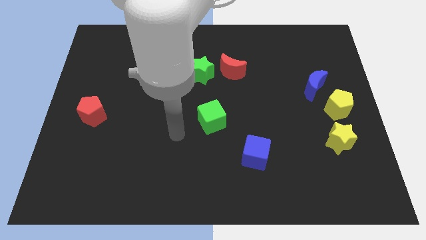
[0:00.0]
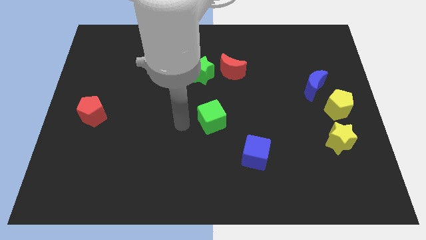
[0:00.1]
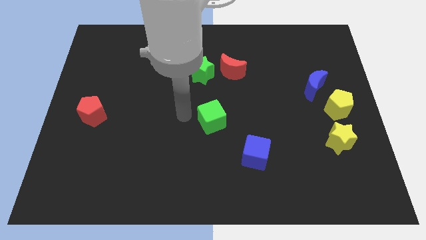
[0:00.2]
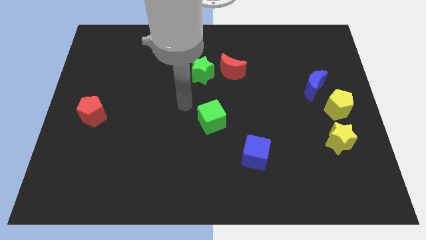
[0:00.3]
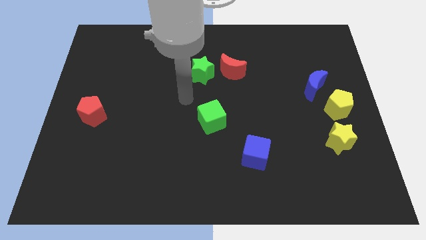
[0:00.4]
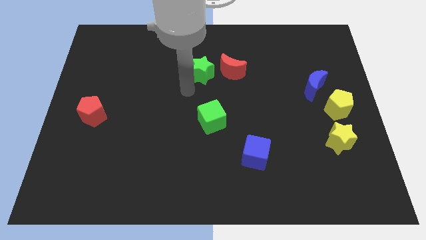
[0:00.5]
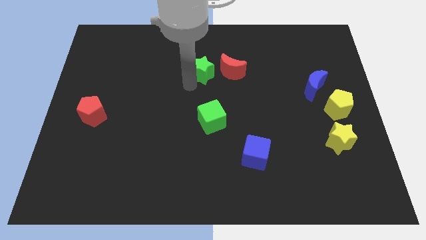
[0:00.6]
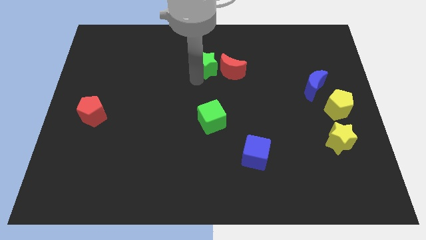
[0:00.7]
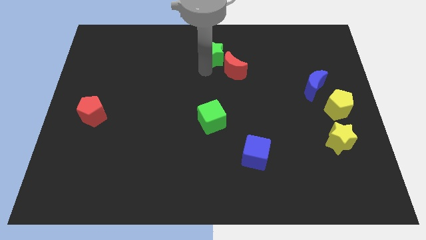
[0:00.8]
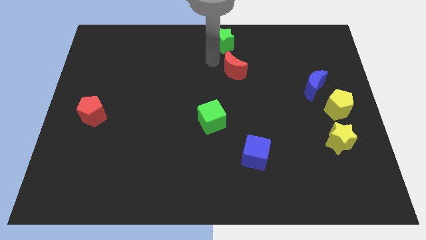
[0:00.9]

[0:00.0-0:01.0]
pull the red moon apart from the green star

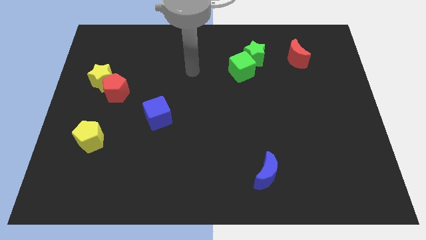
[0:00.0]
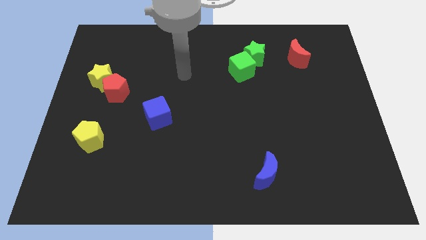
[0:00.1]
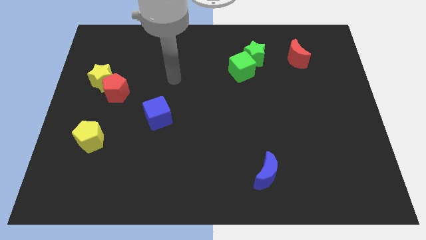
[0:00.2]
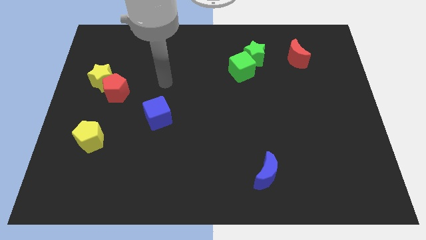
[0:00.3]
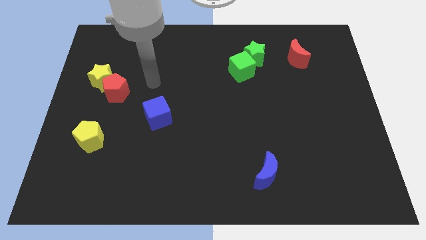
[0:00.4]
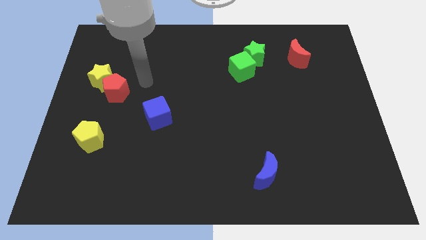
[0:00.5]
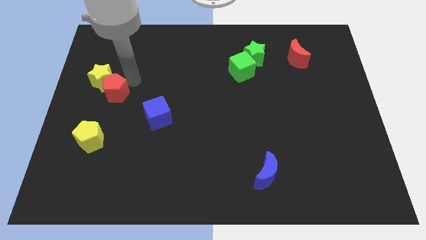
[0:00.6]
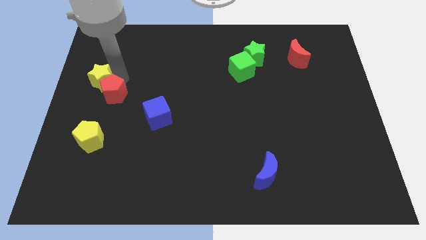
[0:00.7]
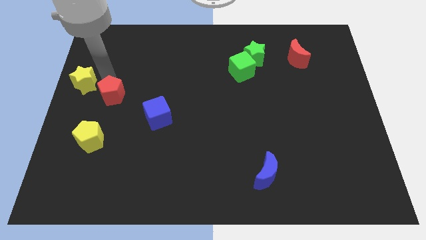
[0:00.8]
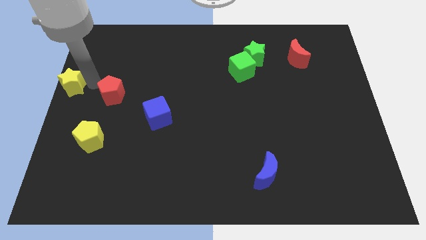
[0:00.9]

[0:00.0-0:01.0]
move the red pentagon away from the yellow star

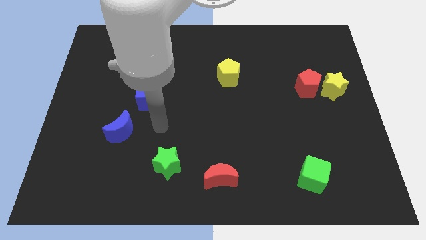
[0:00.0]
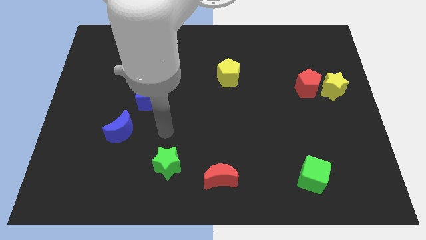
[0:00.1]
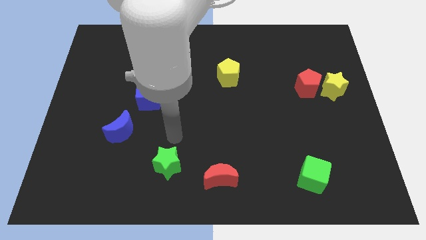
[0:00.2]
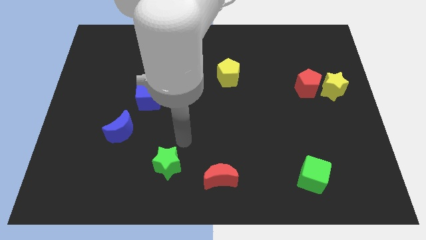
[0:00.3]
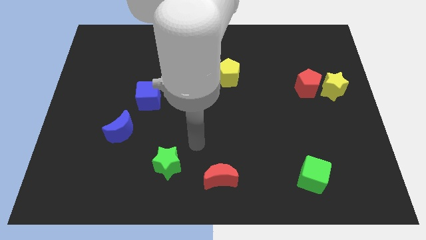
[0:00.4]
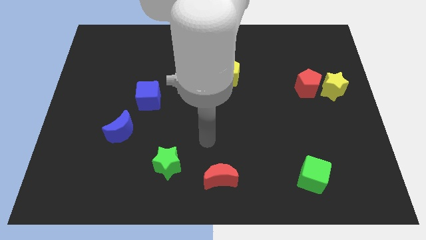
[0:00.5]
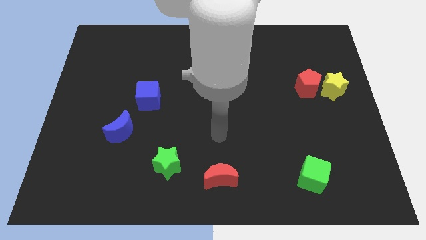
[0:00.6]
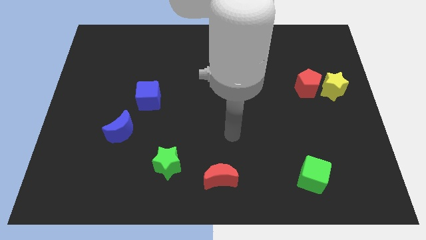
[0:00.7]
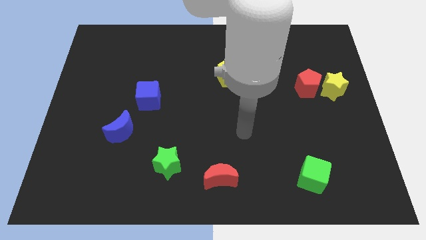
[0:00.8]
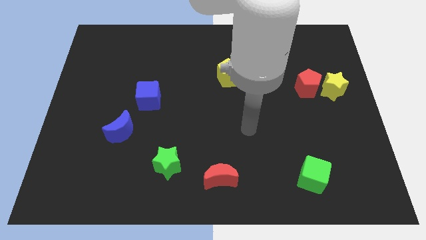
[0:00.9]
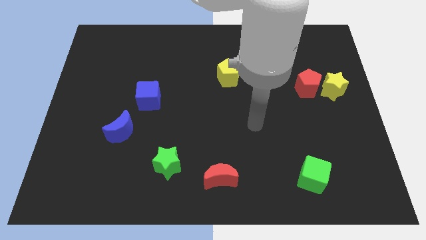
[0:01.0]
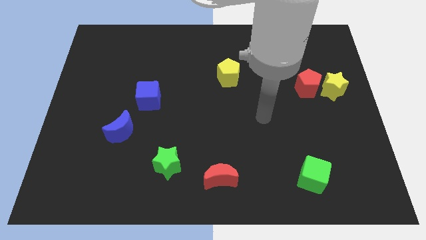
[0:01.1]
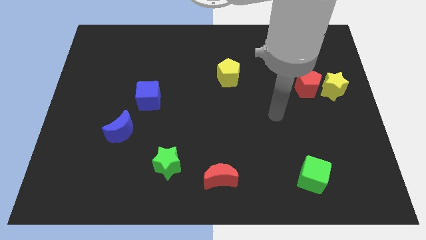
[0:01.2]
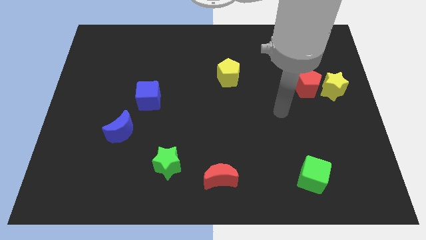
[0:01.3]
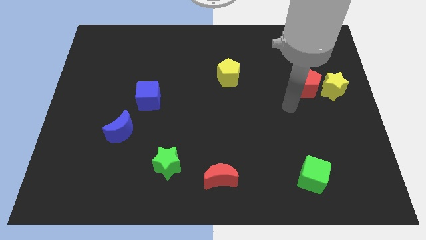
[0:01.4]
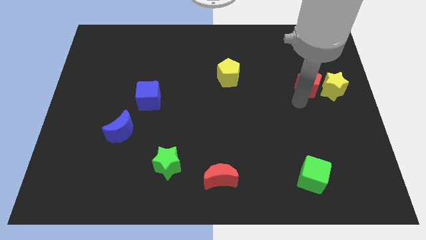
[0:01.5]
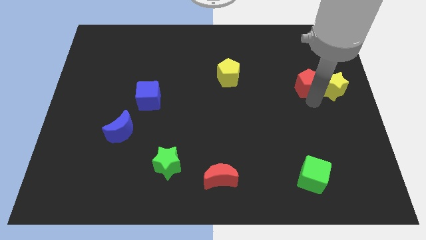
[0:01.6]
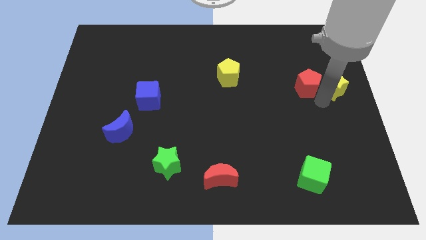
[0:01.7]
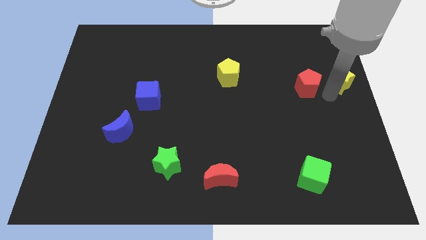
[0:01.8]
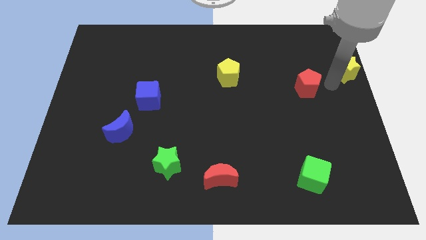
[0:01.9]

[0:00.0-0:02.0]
separate the red pentagon from the yellow star

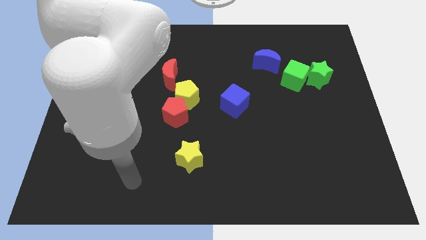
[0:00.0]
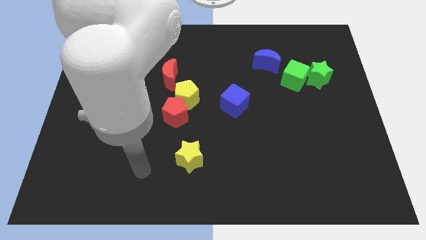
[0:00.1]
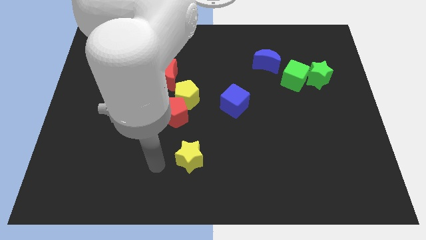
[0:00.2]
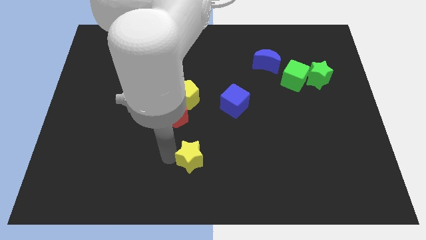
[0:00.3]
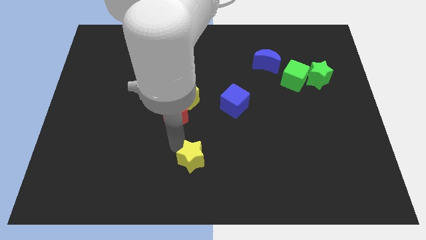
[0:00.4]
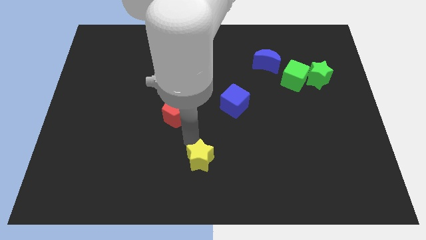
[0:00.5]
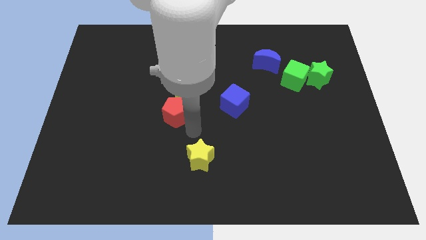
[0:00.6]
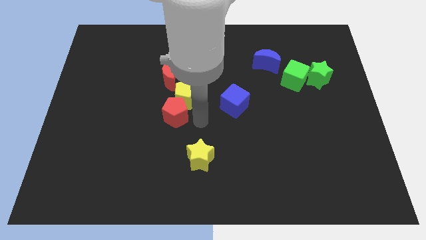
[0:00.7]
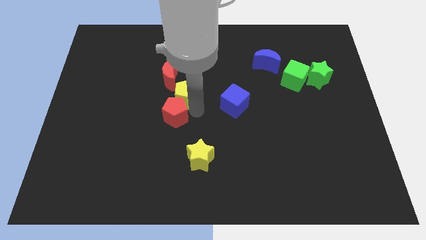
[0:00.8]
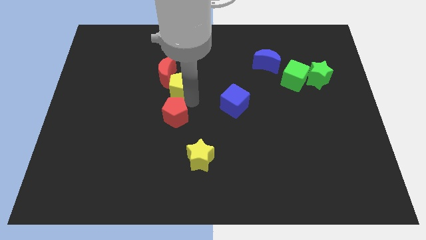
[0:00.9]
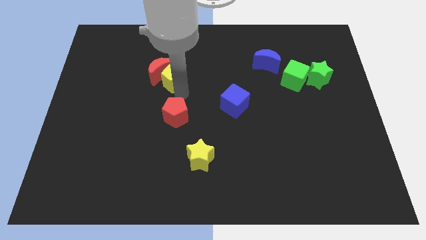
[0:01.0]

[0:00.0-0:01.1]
separate the red pentagon from the yellow pentagon

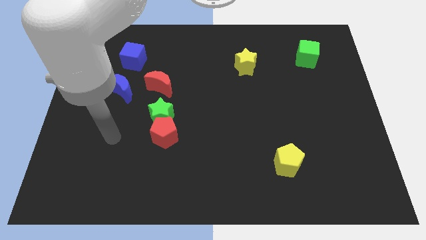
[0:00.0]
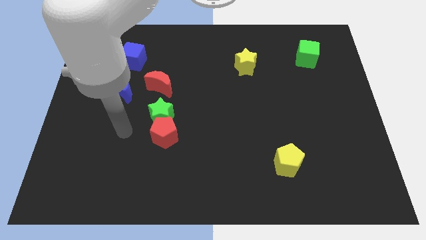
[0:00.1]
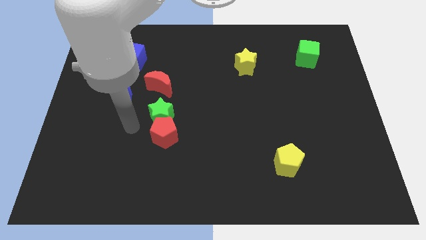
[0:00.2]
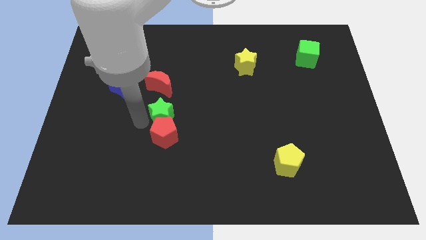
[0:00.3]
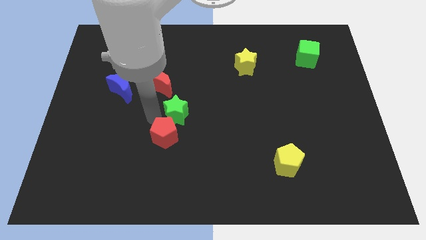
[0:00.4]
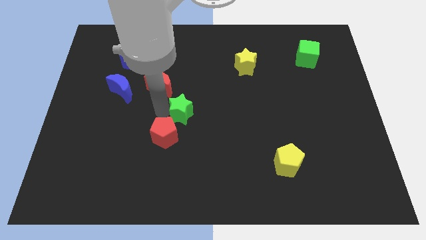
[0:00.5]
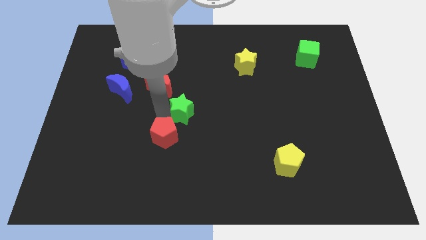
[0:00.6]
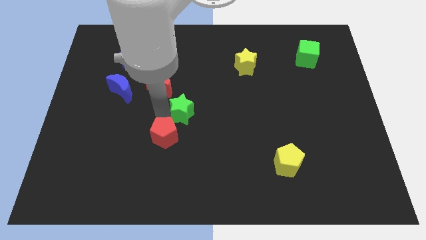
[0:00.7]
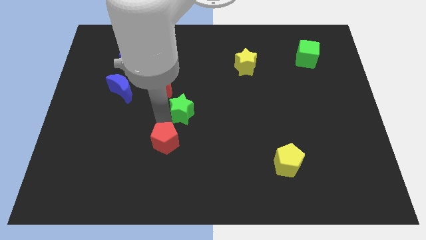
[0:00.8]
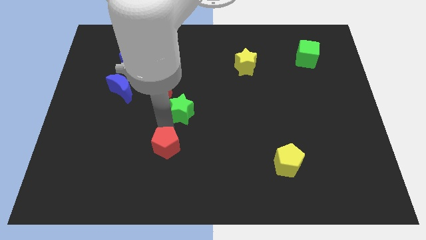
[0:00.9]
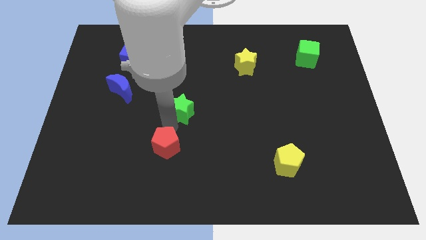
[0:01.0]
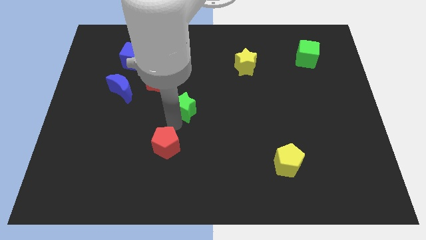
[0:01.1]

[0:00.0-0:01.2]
pull the red pentagon apart from the green star

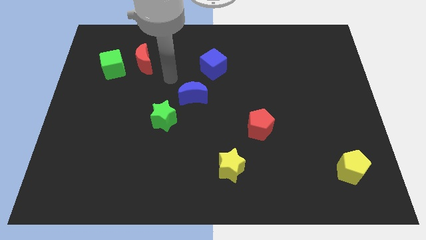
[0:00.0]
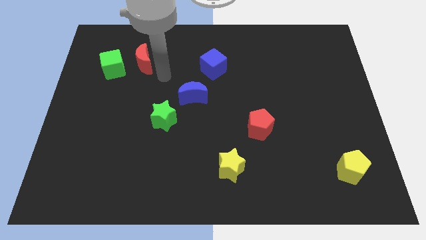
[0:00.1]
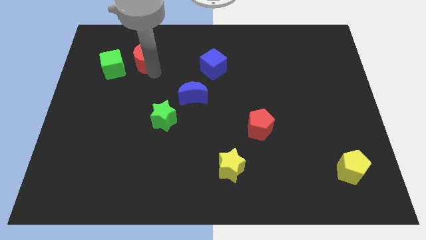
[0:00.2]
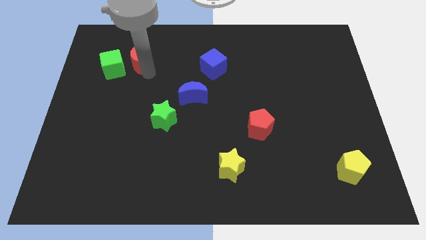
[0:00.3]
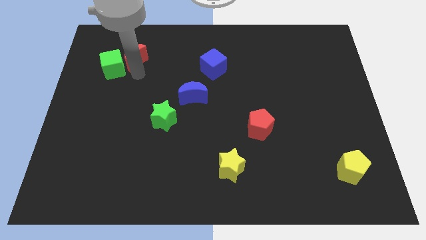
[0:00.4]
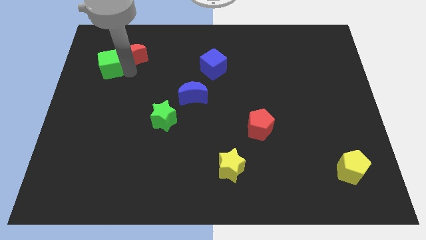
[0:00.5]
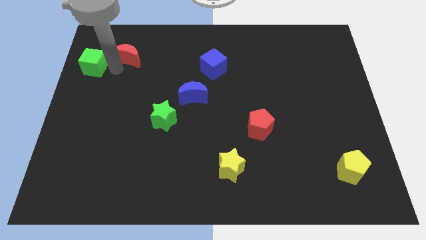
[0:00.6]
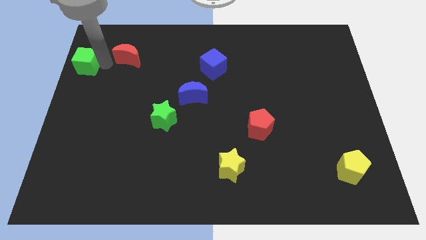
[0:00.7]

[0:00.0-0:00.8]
pull the red moon apart from the green cube

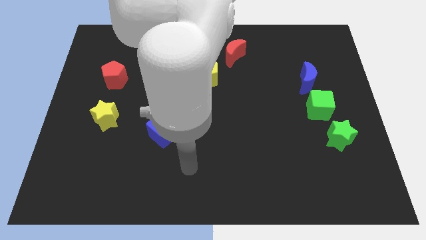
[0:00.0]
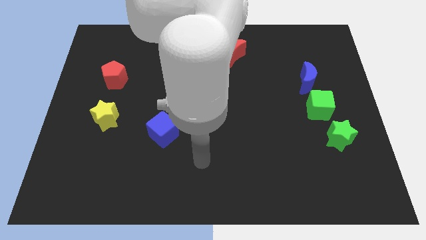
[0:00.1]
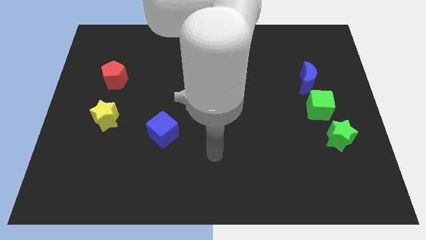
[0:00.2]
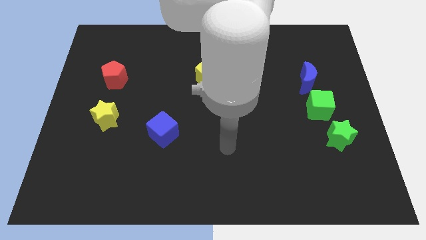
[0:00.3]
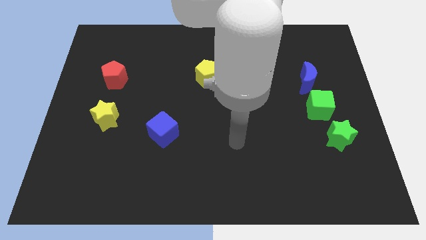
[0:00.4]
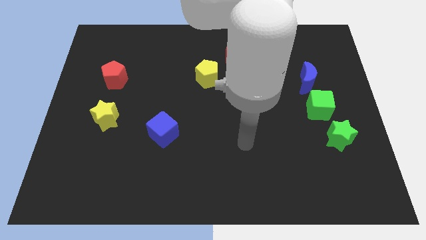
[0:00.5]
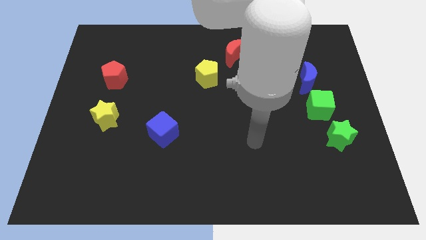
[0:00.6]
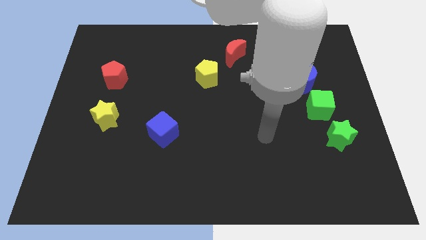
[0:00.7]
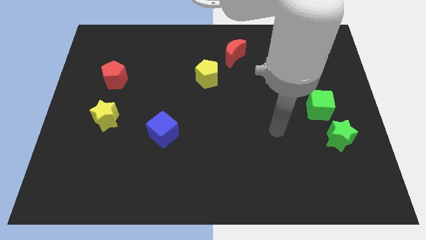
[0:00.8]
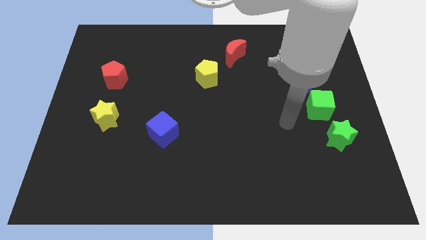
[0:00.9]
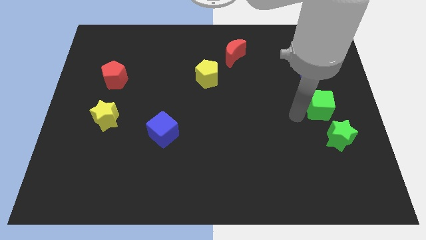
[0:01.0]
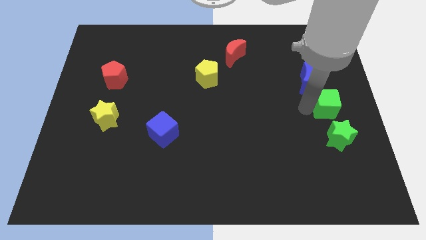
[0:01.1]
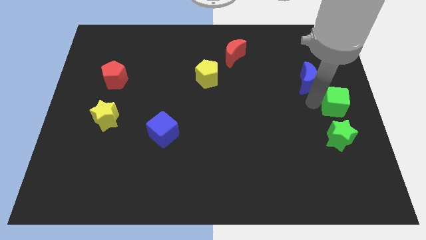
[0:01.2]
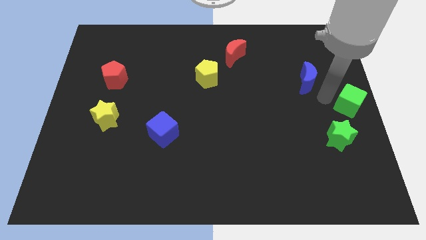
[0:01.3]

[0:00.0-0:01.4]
separate the blue moon from the green cube

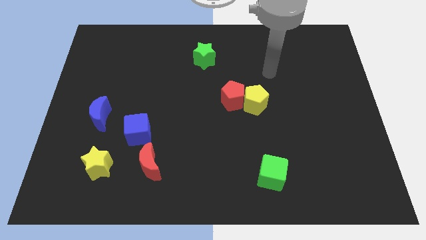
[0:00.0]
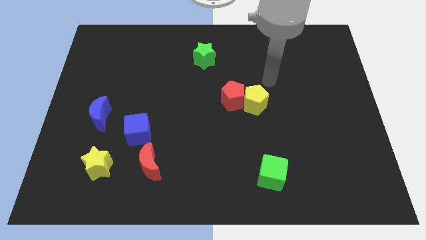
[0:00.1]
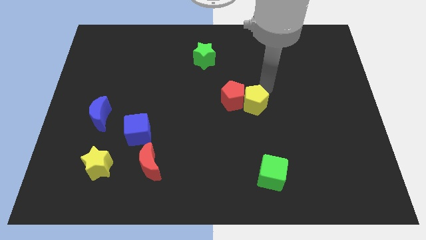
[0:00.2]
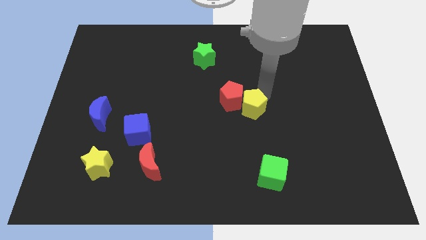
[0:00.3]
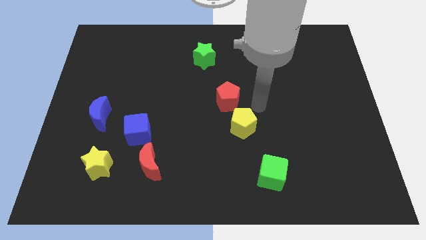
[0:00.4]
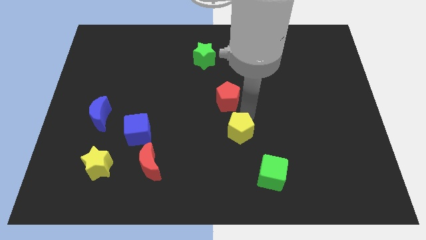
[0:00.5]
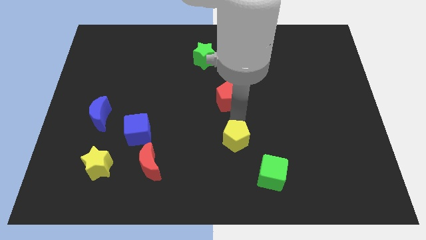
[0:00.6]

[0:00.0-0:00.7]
move the red pentagon away from the yellow pentagon
